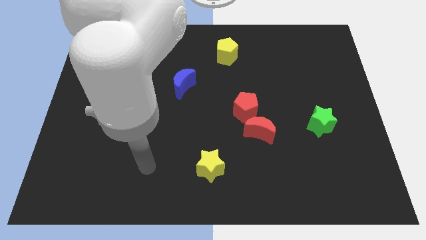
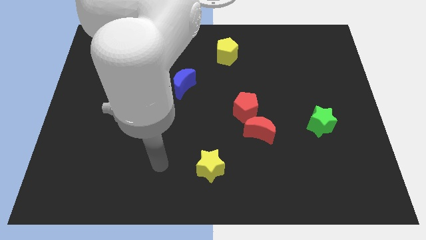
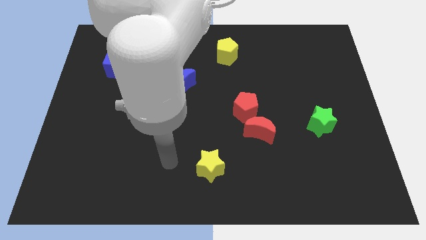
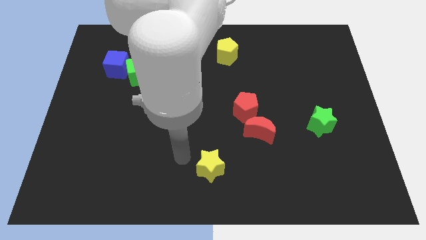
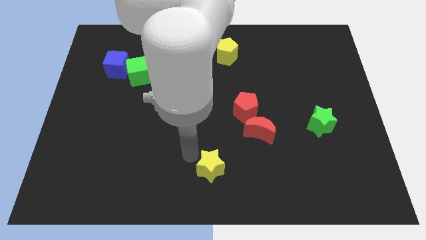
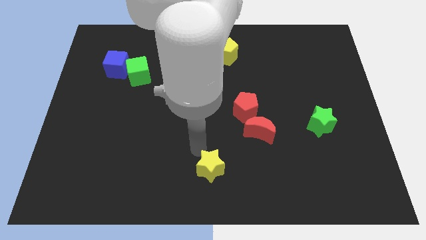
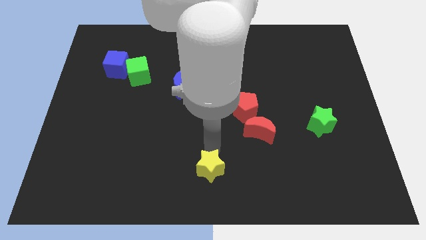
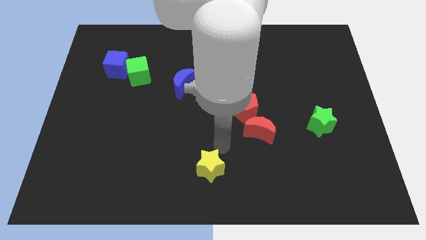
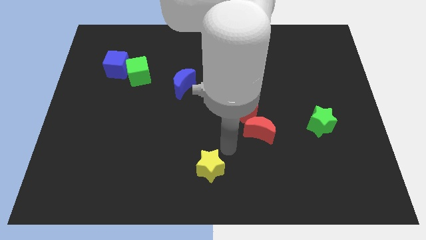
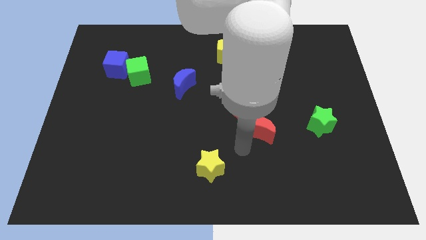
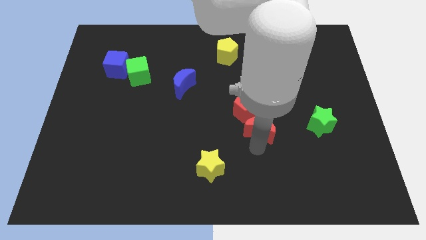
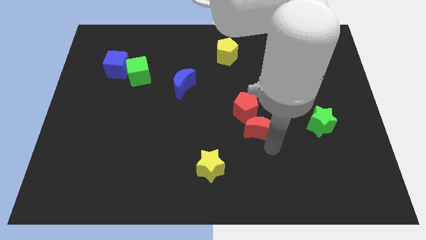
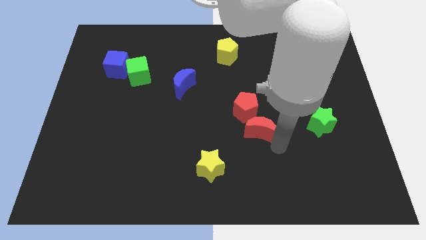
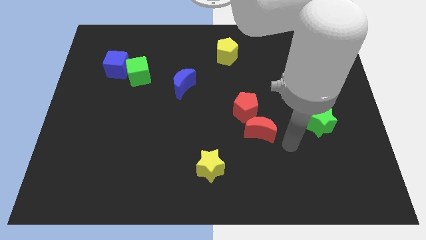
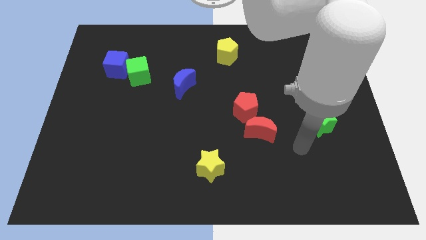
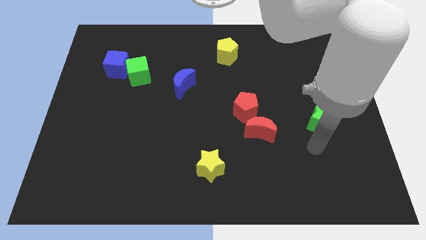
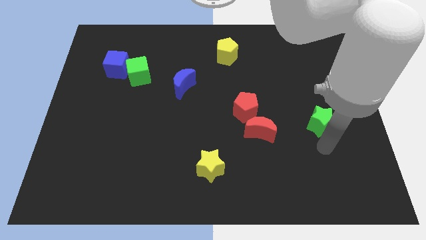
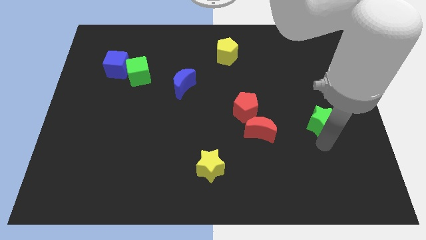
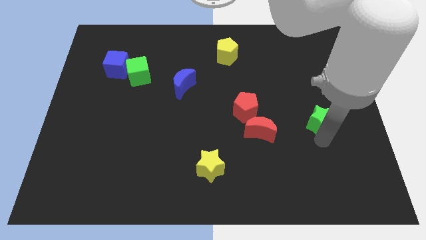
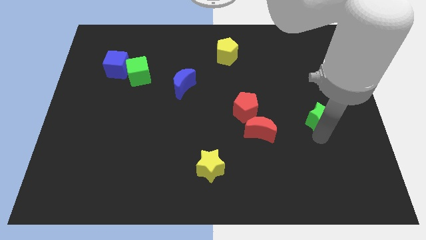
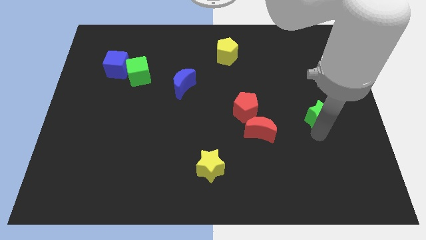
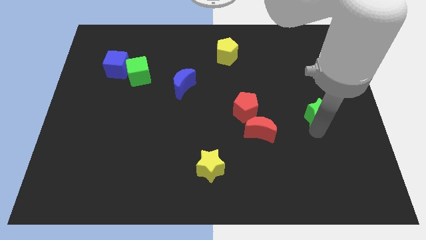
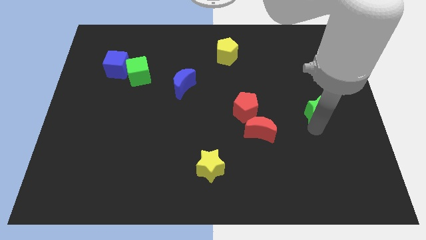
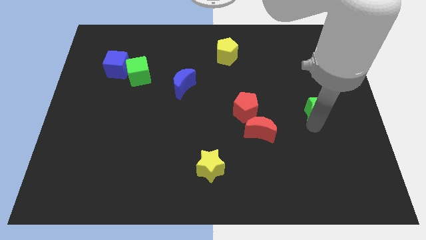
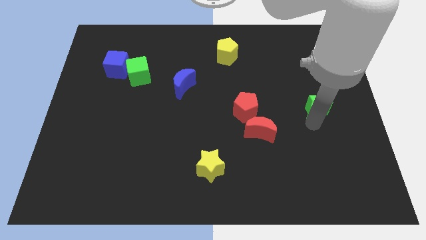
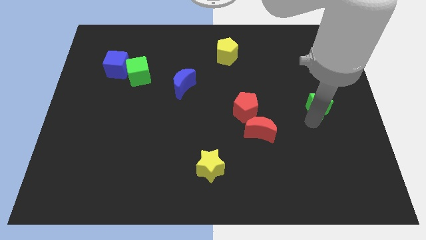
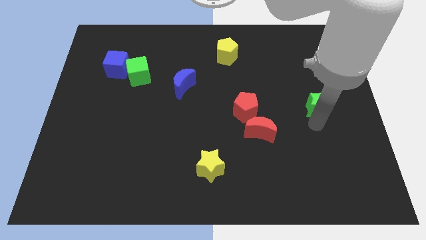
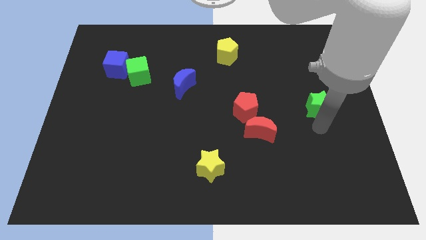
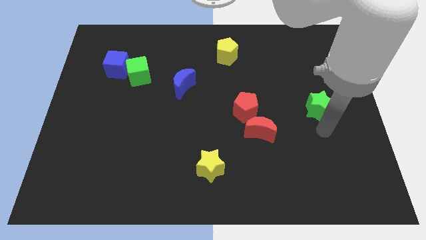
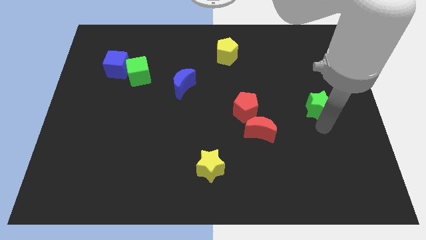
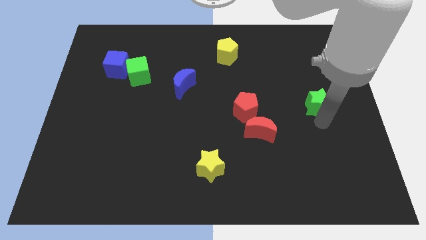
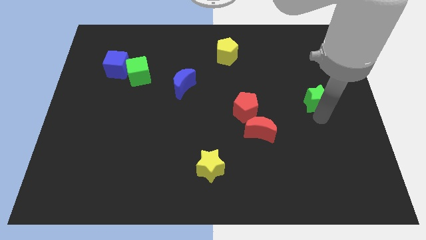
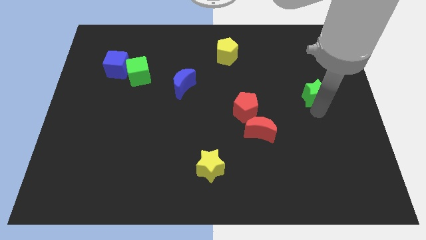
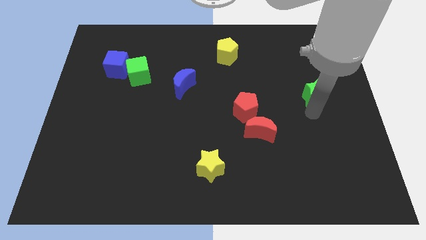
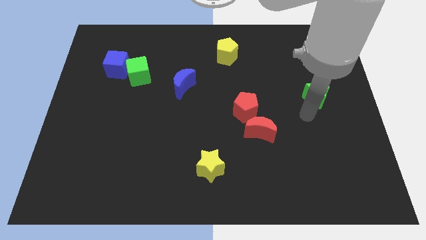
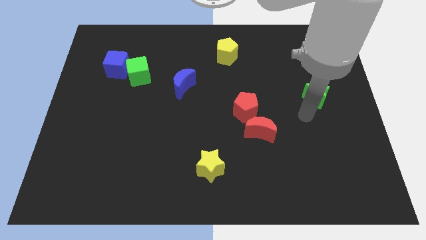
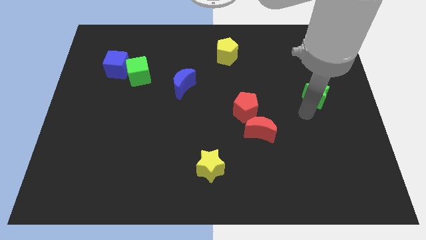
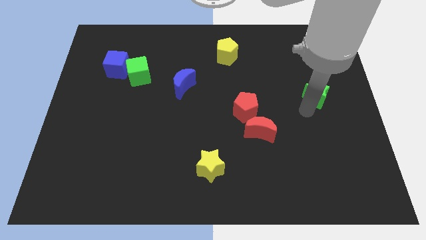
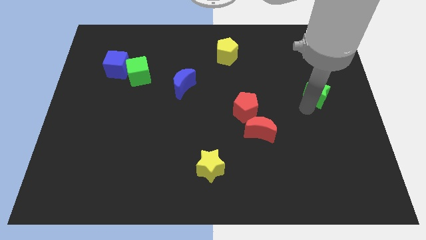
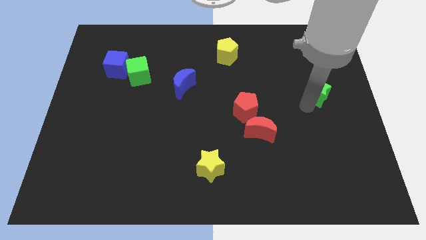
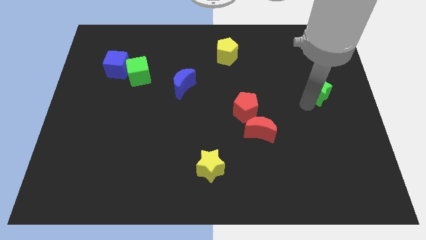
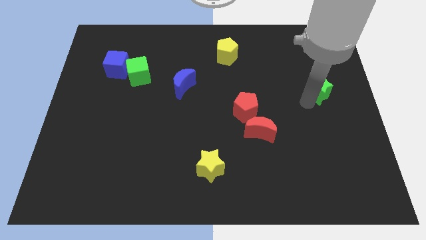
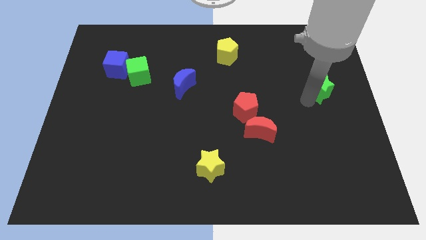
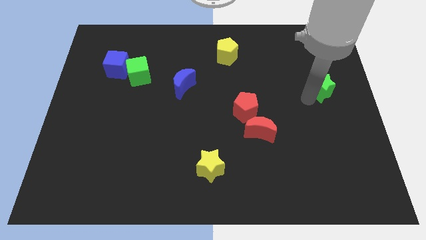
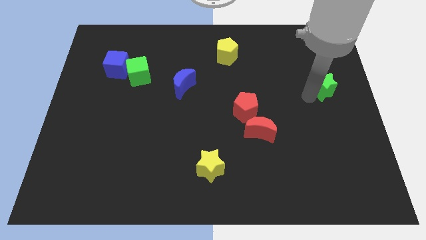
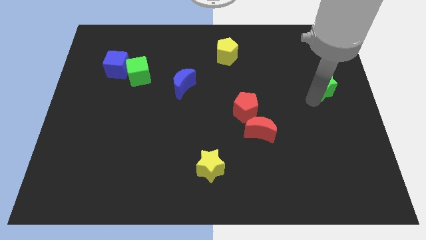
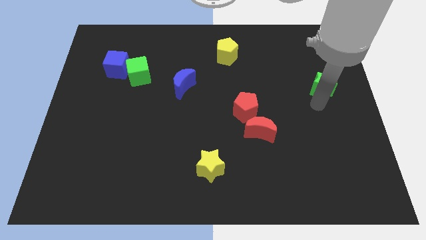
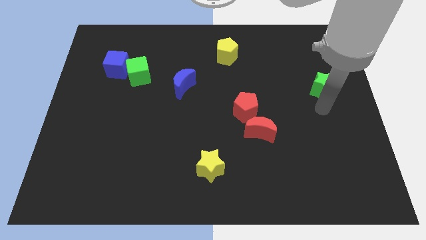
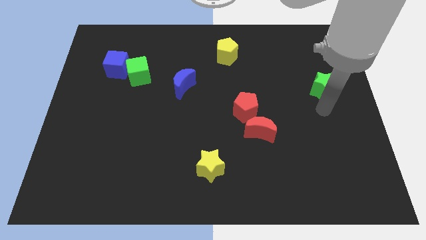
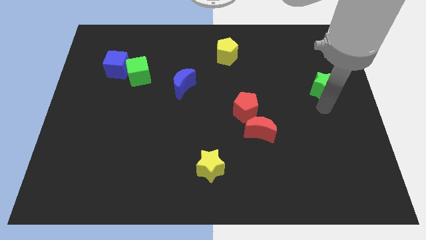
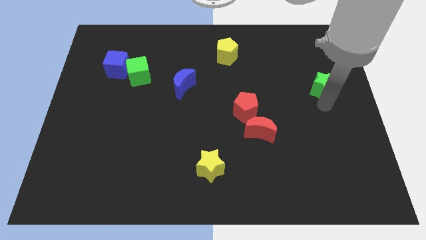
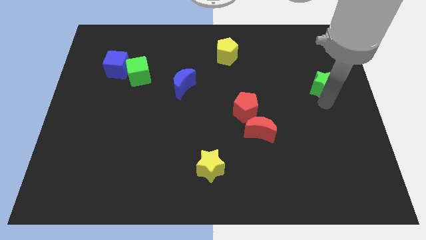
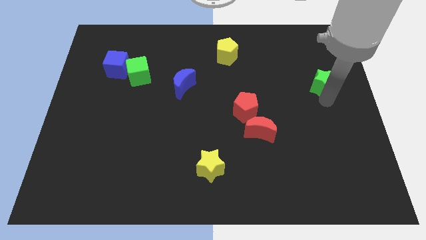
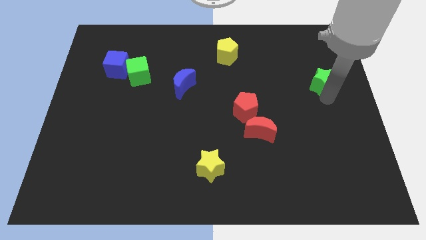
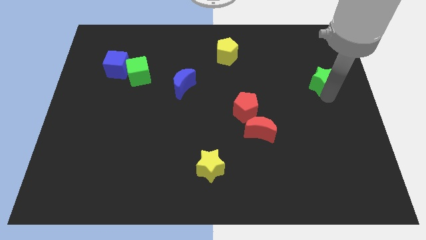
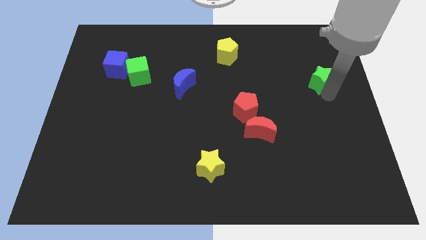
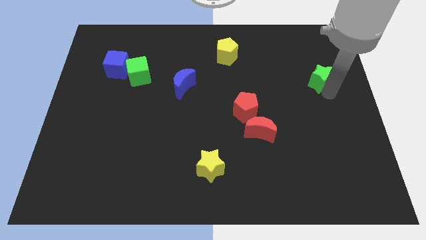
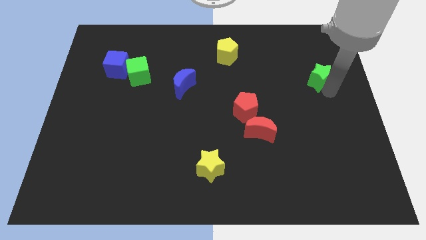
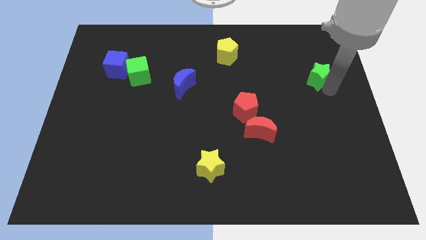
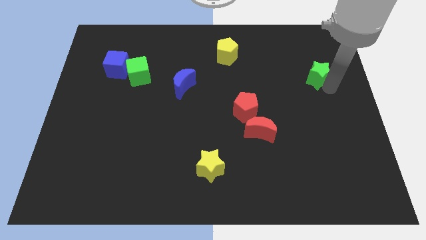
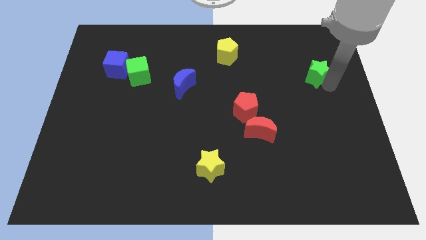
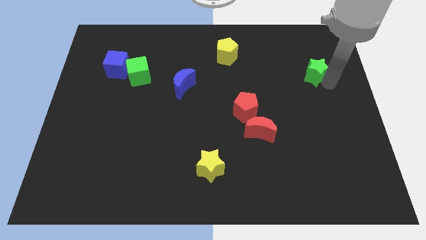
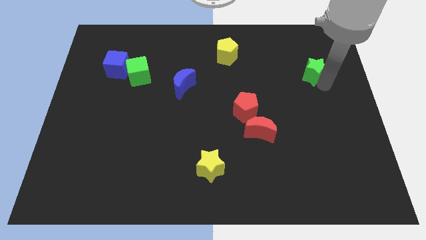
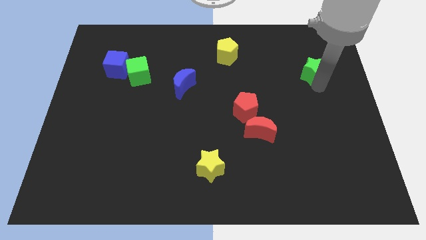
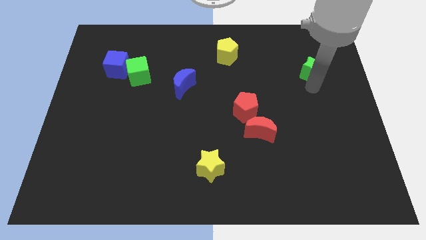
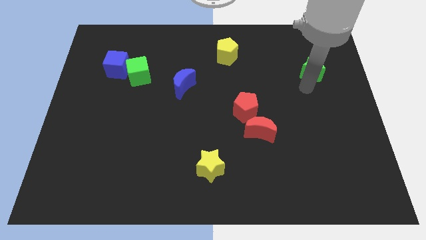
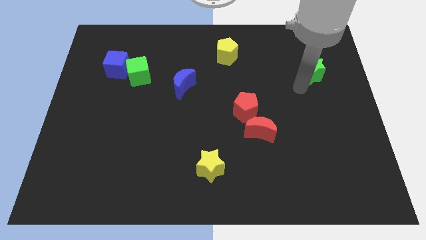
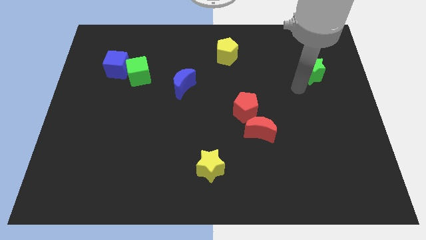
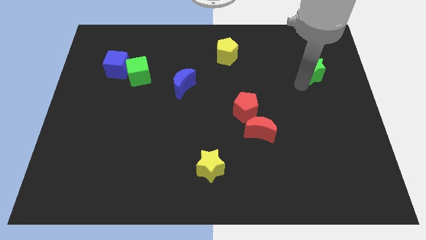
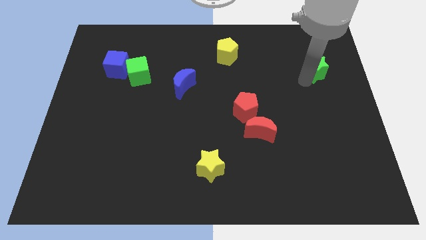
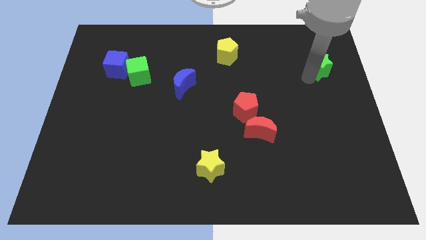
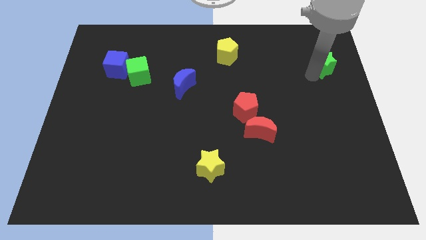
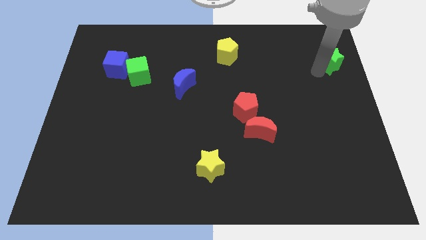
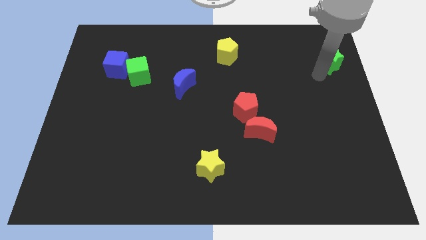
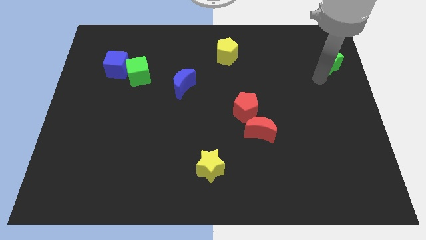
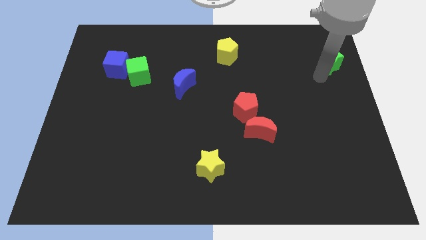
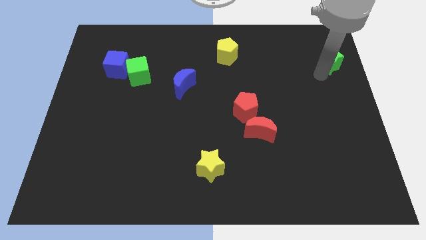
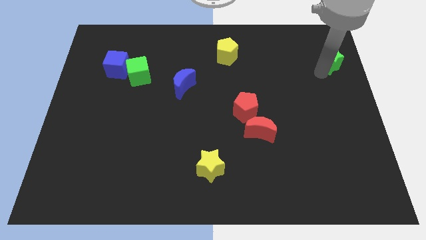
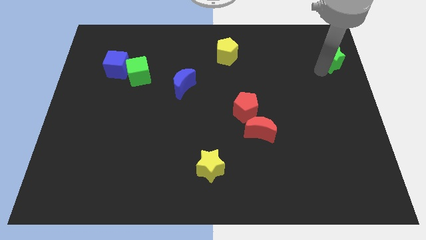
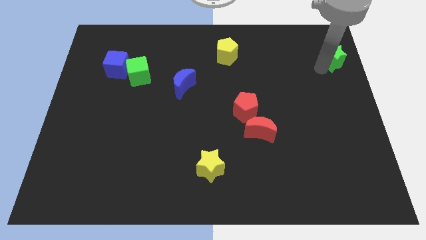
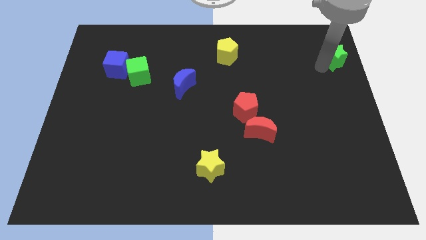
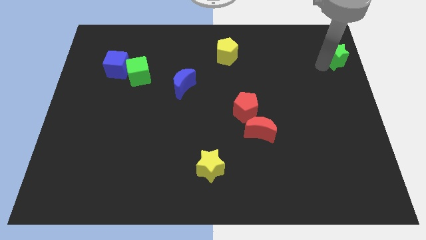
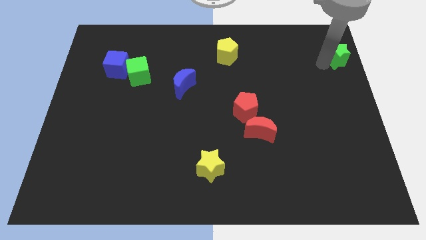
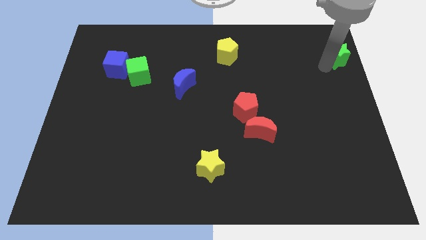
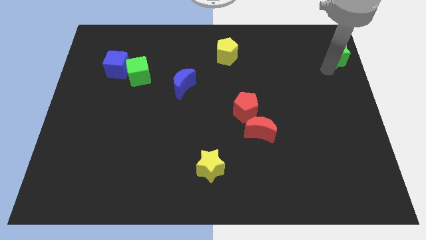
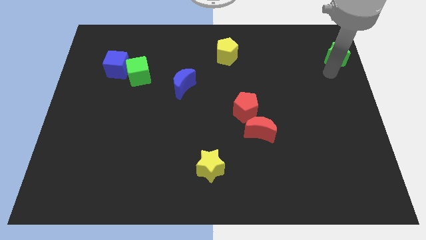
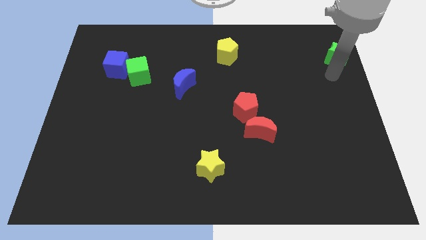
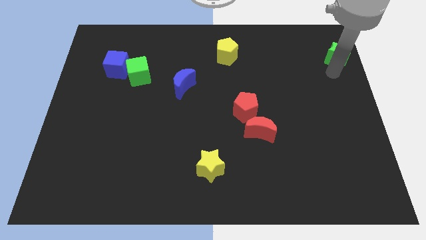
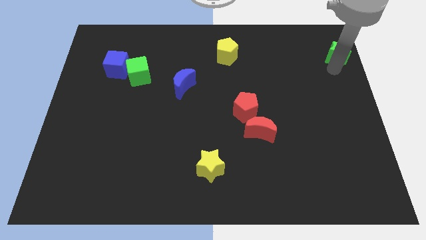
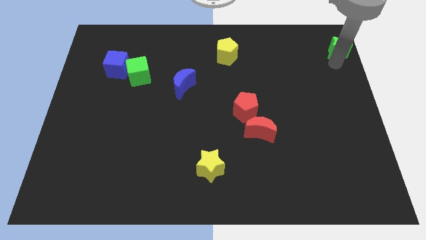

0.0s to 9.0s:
slide the green star to the top right corner
